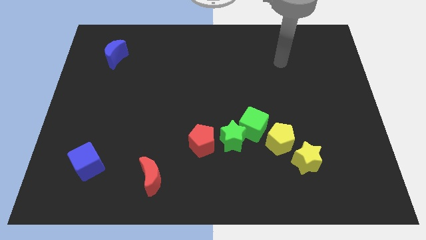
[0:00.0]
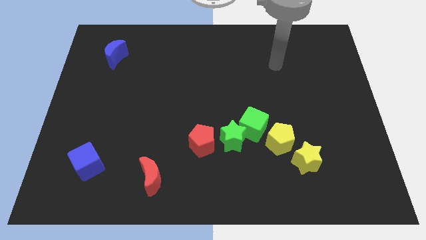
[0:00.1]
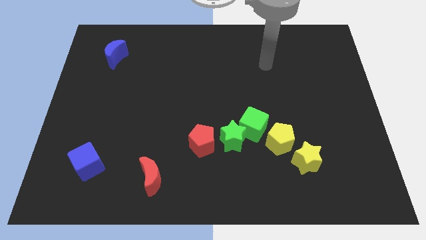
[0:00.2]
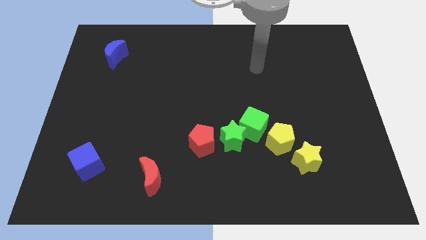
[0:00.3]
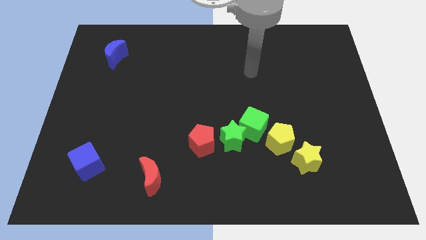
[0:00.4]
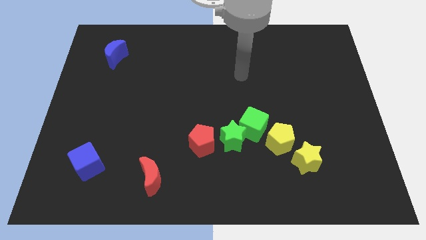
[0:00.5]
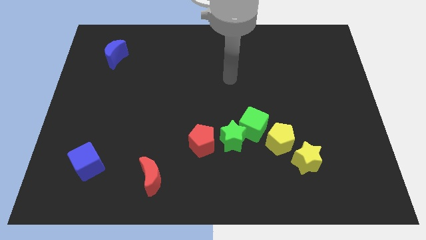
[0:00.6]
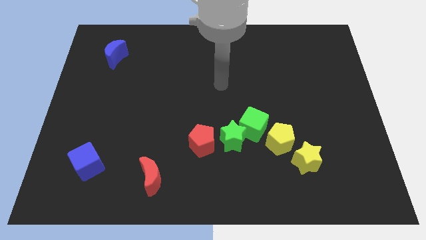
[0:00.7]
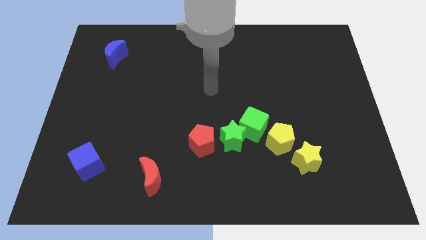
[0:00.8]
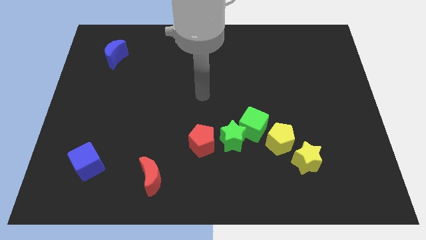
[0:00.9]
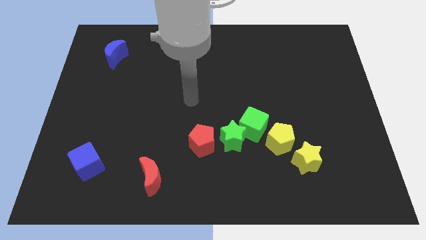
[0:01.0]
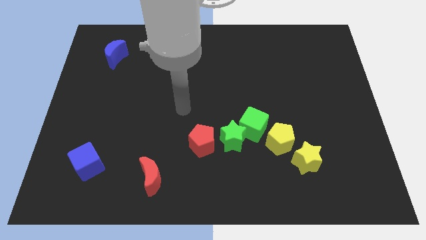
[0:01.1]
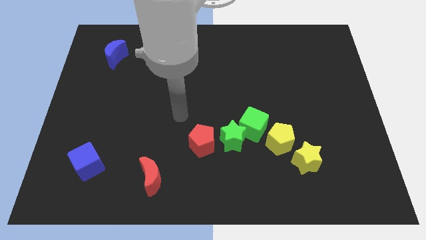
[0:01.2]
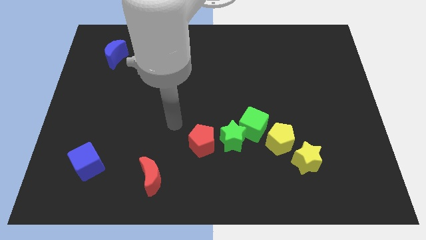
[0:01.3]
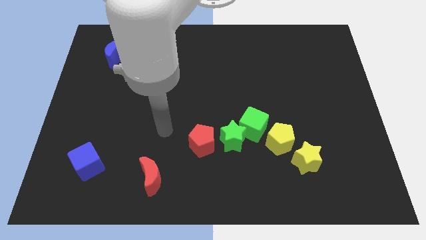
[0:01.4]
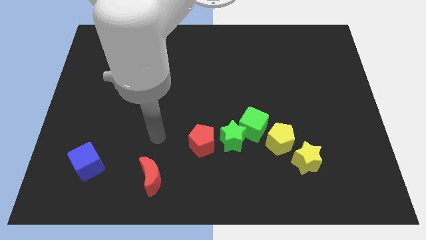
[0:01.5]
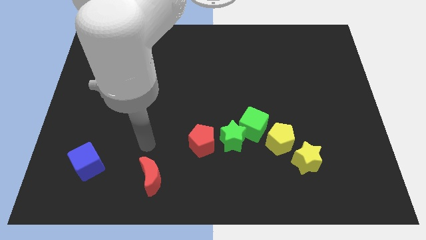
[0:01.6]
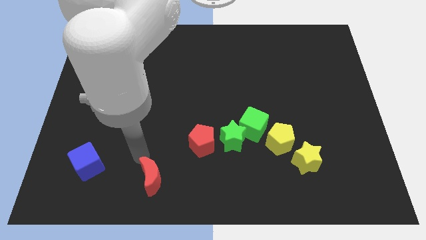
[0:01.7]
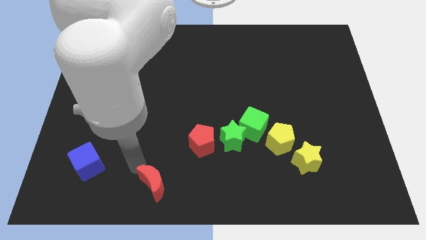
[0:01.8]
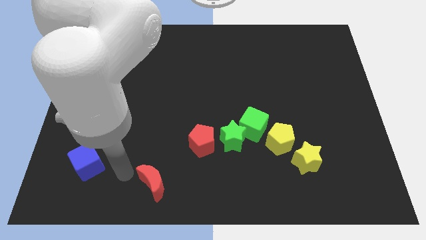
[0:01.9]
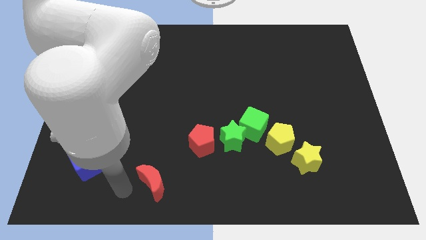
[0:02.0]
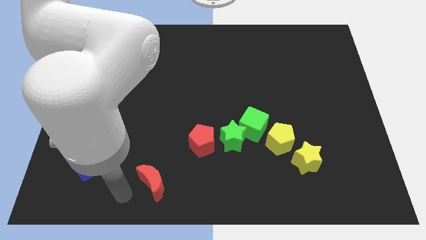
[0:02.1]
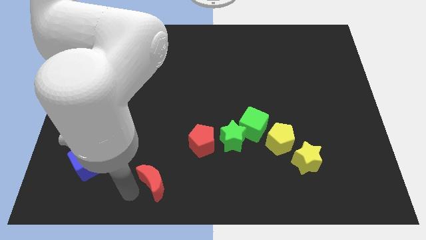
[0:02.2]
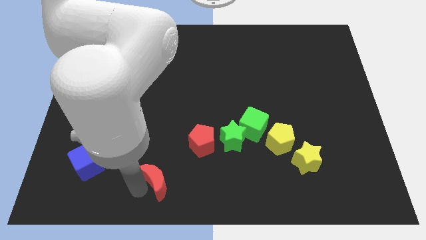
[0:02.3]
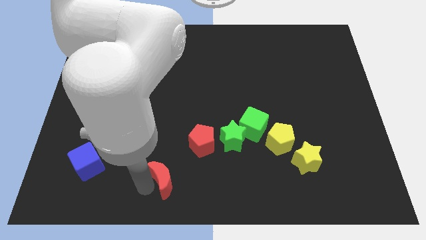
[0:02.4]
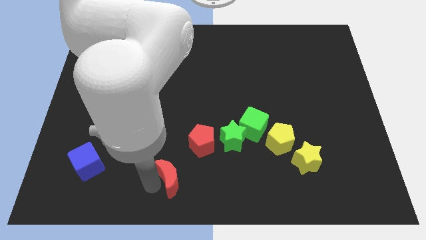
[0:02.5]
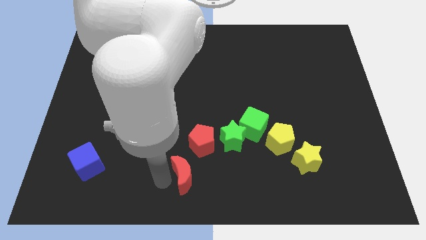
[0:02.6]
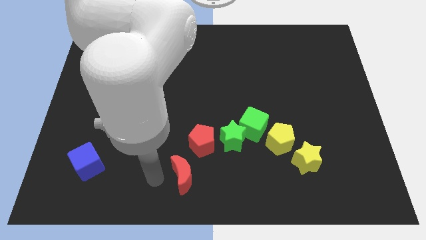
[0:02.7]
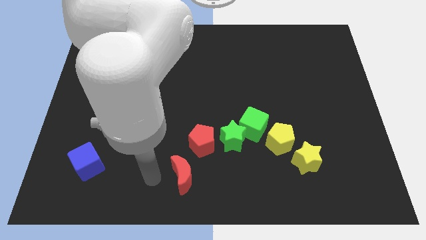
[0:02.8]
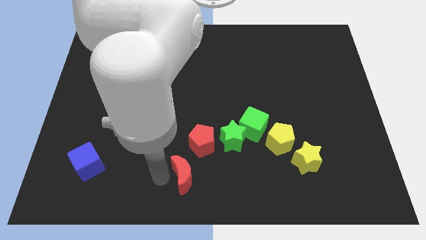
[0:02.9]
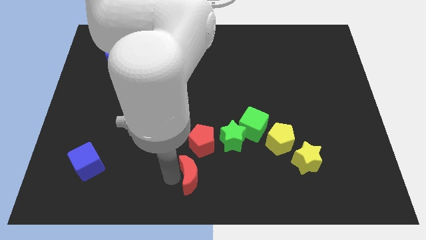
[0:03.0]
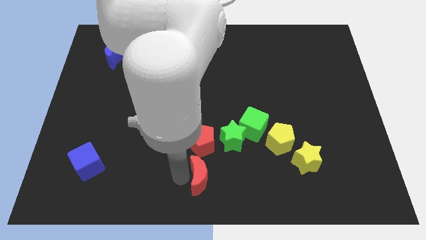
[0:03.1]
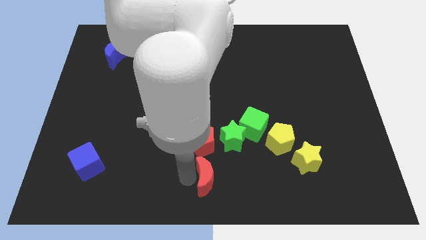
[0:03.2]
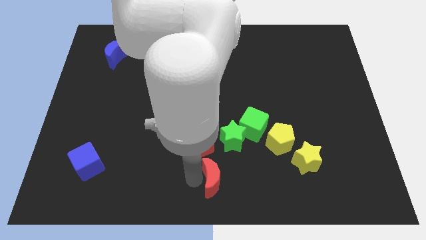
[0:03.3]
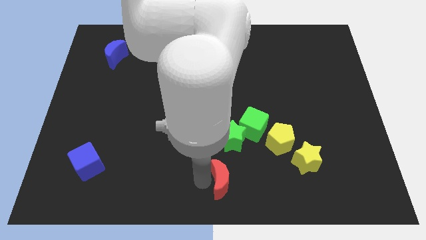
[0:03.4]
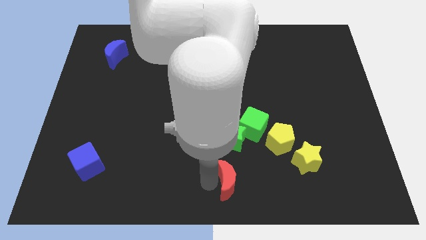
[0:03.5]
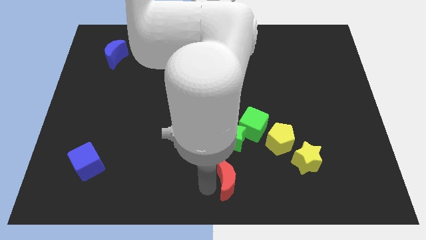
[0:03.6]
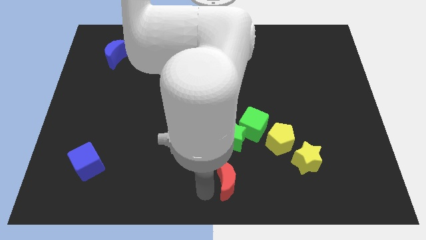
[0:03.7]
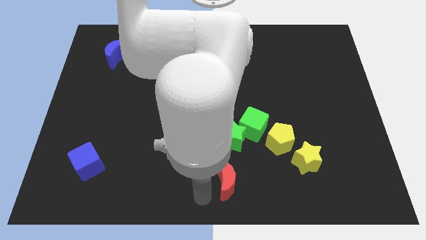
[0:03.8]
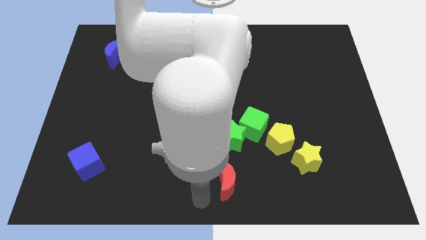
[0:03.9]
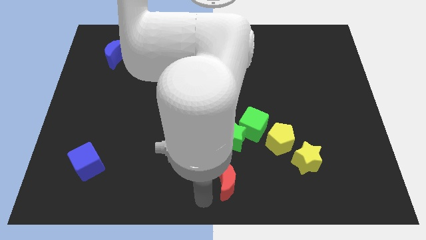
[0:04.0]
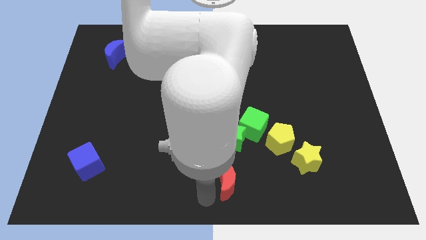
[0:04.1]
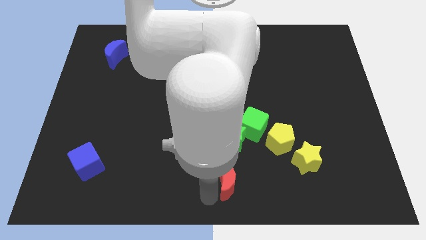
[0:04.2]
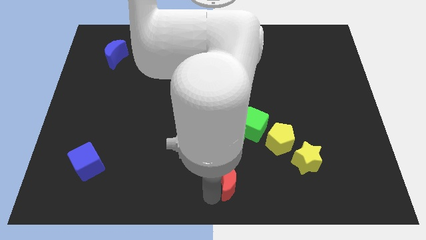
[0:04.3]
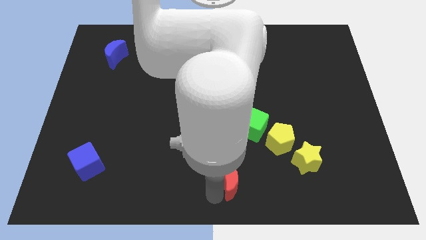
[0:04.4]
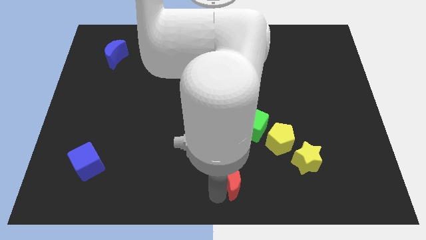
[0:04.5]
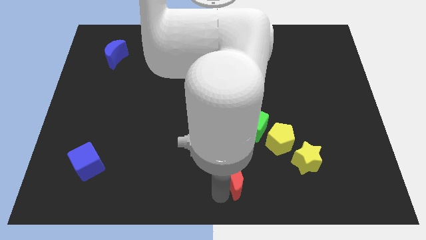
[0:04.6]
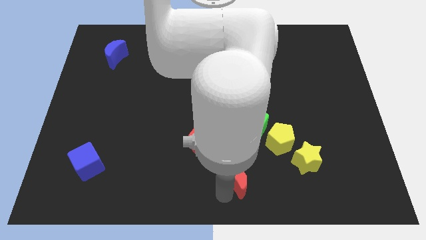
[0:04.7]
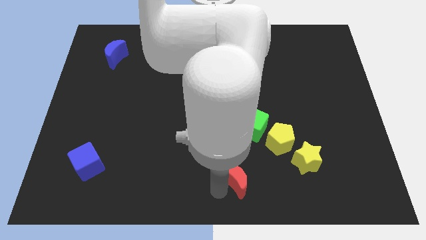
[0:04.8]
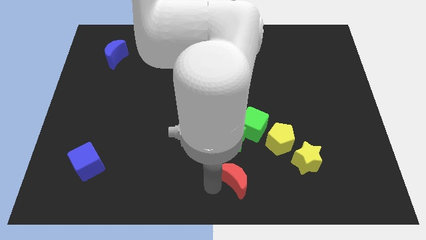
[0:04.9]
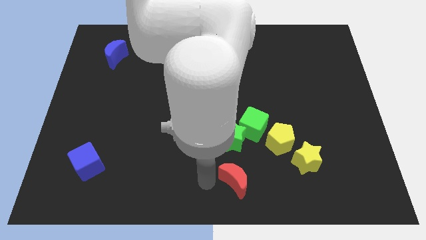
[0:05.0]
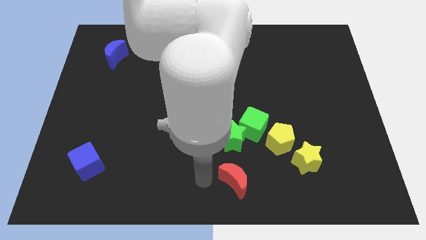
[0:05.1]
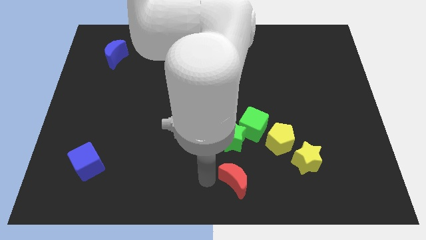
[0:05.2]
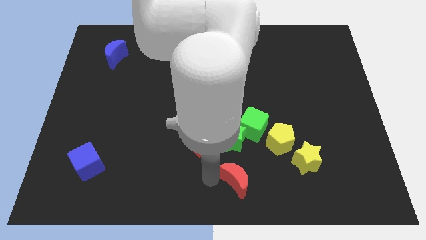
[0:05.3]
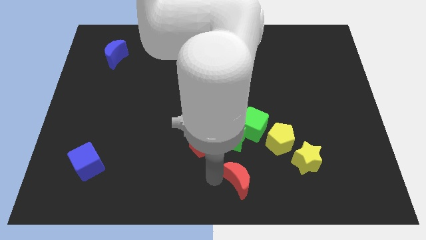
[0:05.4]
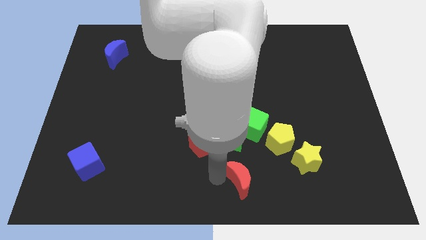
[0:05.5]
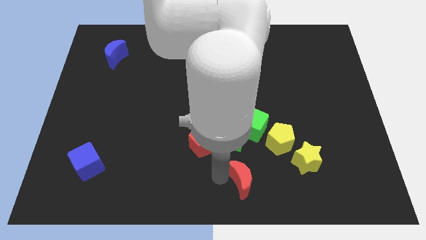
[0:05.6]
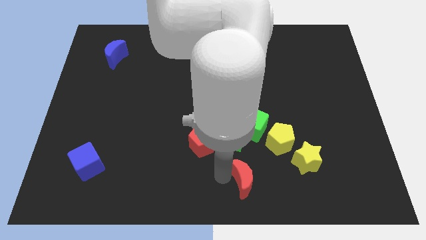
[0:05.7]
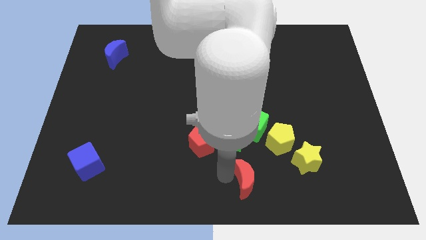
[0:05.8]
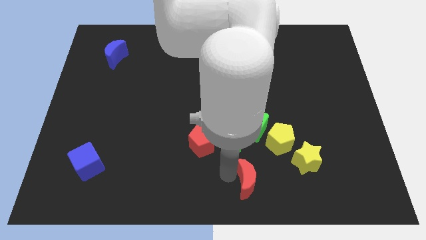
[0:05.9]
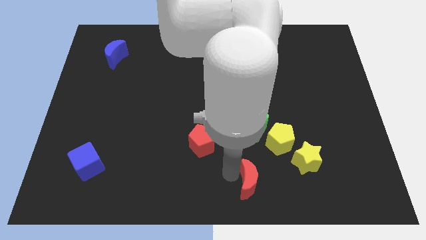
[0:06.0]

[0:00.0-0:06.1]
move the red moon right

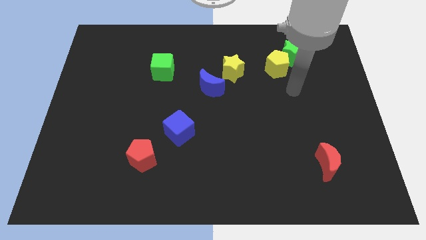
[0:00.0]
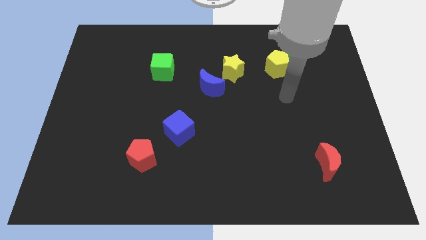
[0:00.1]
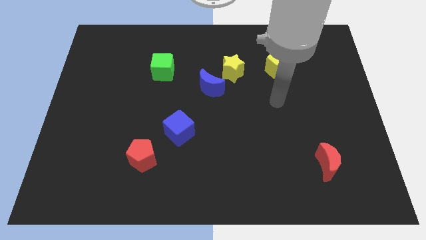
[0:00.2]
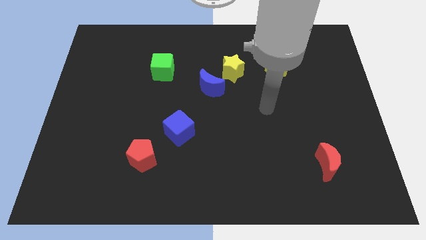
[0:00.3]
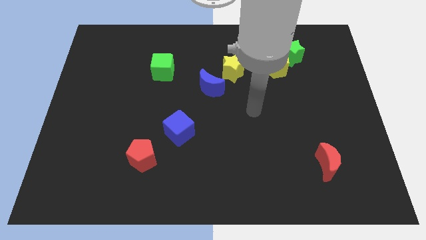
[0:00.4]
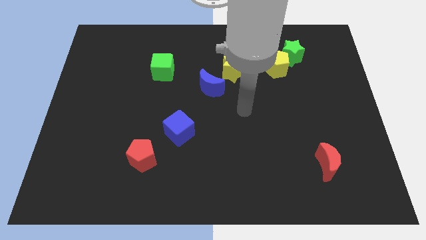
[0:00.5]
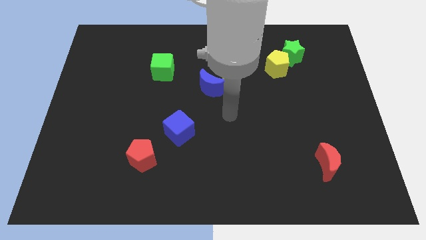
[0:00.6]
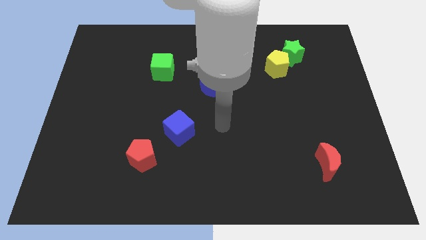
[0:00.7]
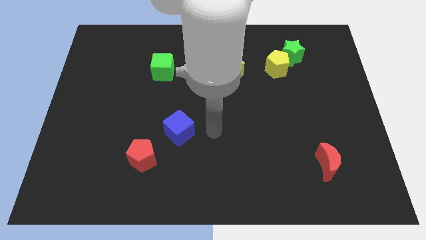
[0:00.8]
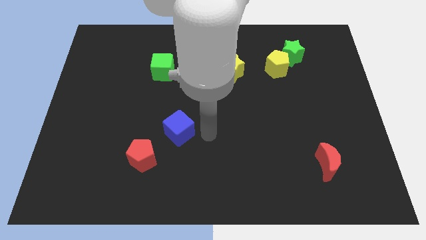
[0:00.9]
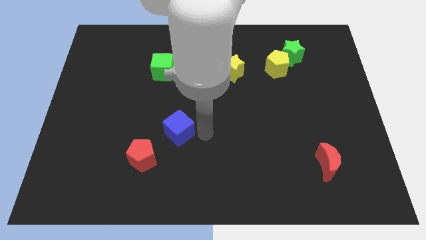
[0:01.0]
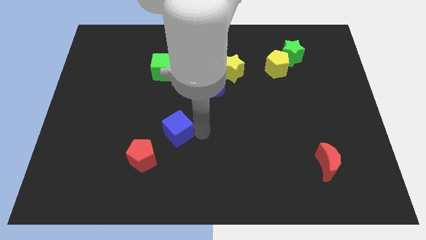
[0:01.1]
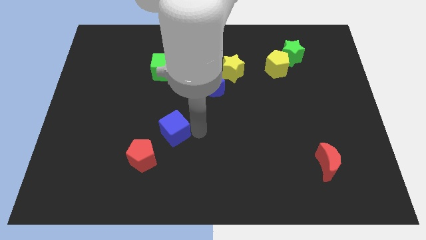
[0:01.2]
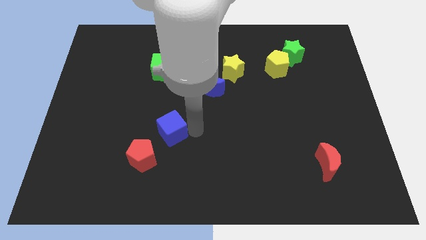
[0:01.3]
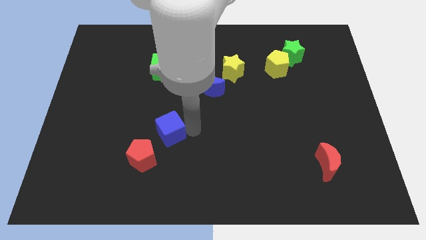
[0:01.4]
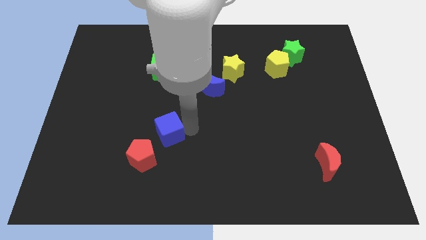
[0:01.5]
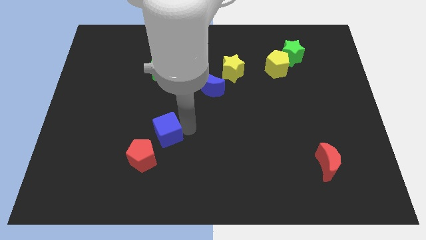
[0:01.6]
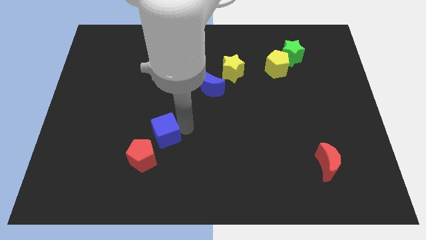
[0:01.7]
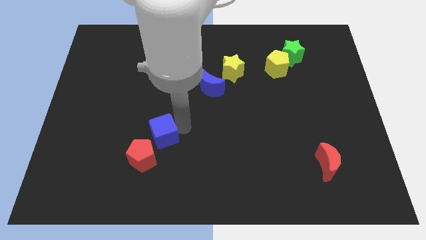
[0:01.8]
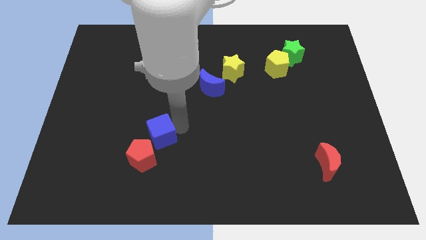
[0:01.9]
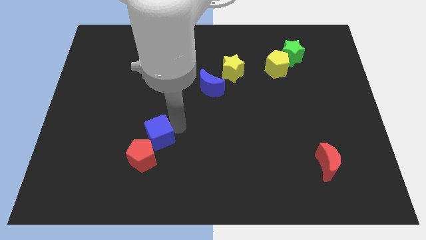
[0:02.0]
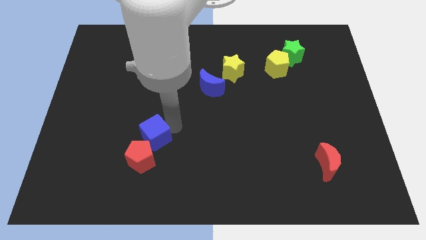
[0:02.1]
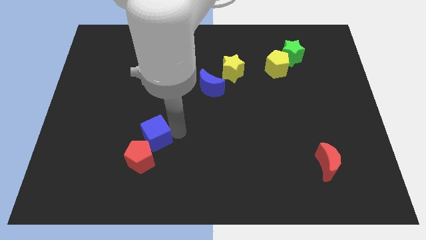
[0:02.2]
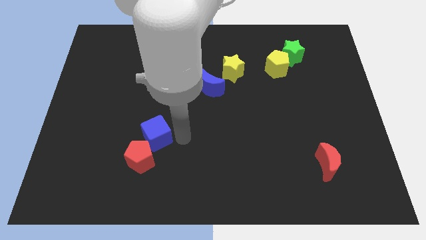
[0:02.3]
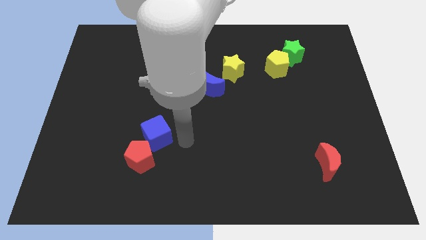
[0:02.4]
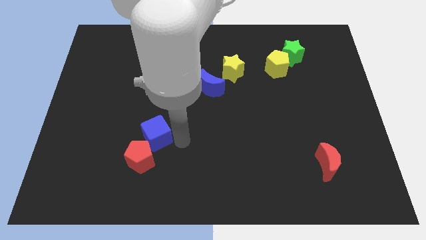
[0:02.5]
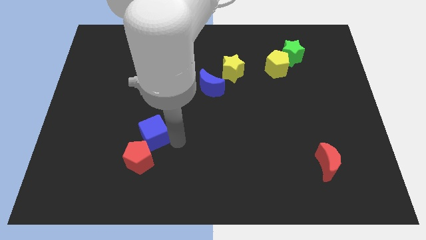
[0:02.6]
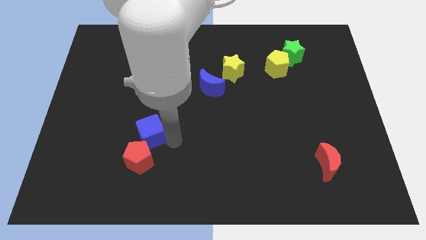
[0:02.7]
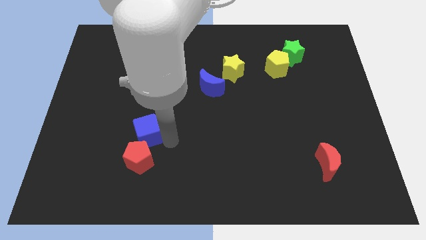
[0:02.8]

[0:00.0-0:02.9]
slightly slide the blue cube to the left
